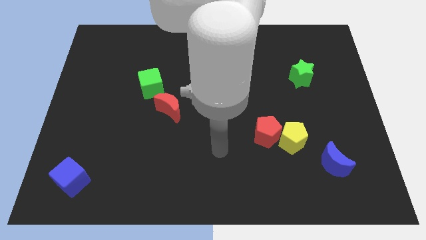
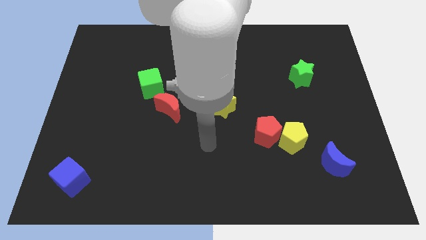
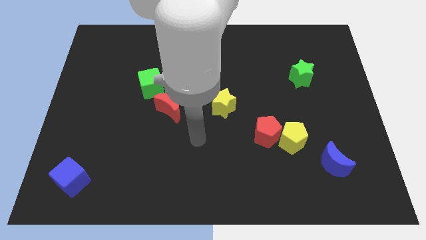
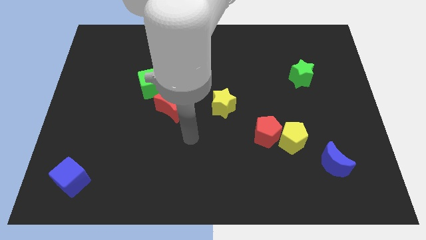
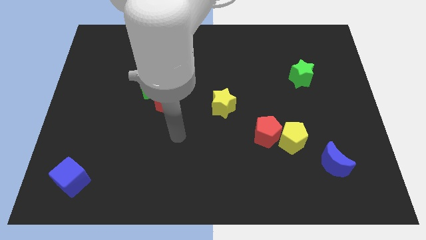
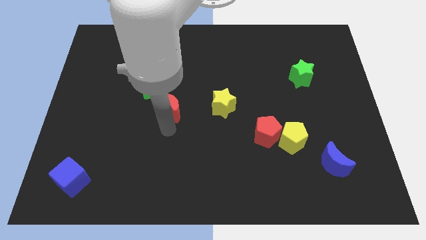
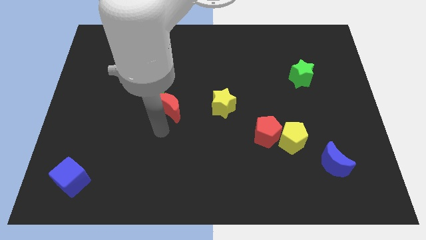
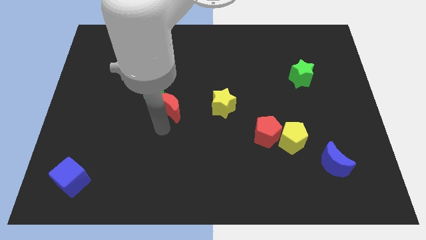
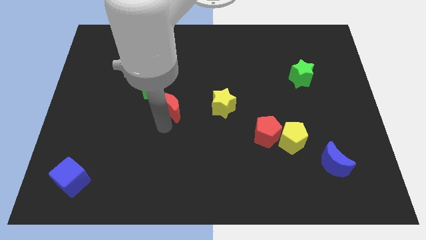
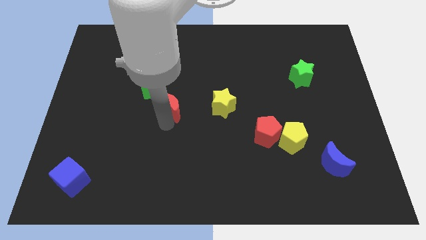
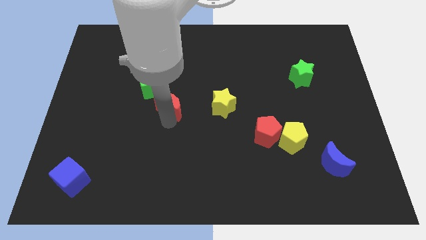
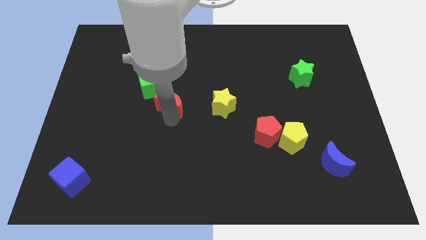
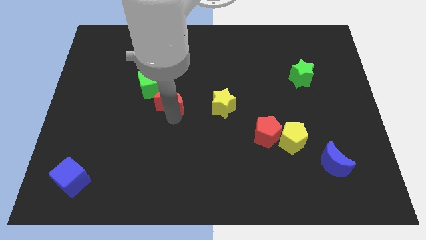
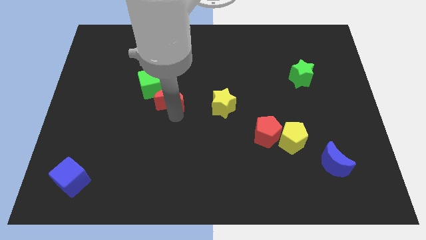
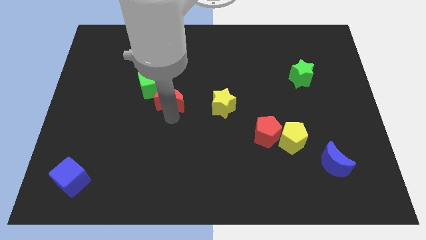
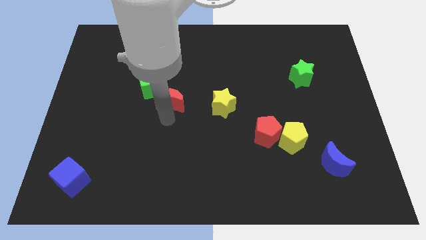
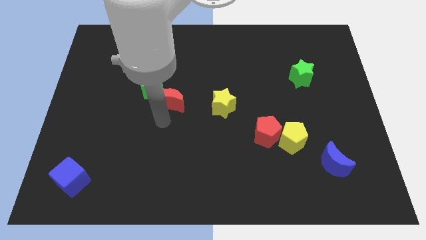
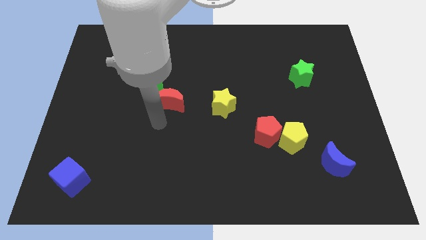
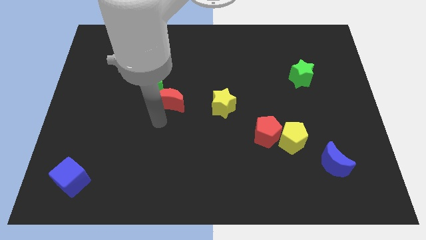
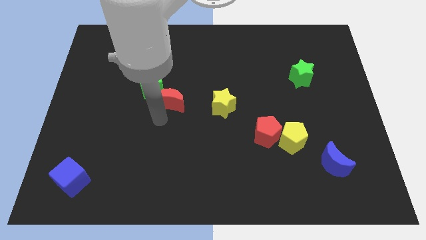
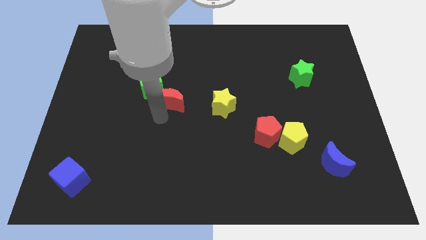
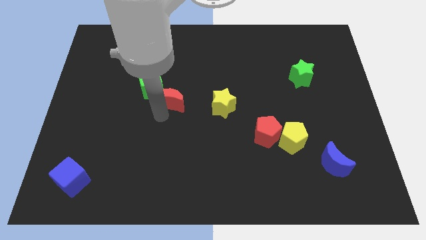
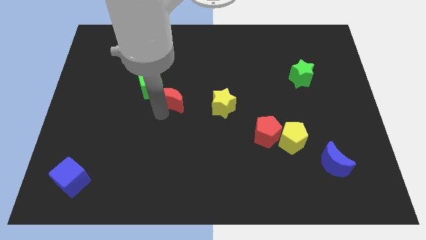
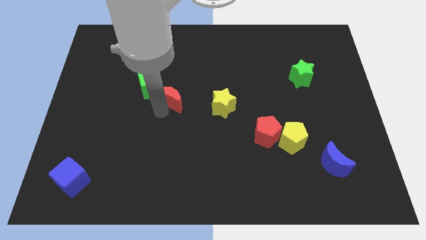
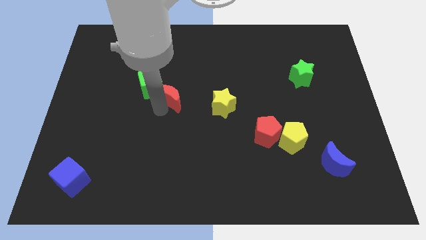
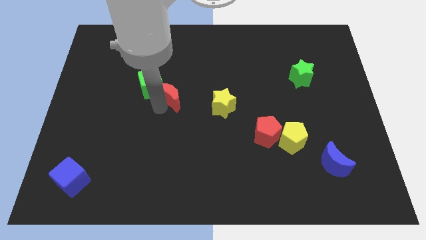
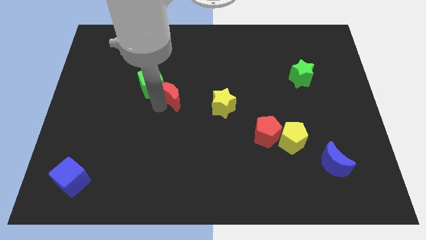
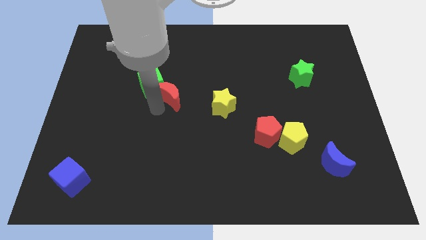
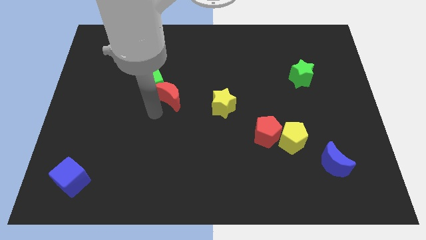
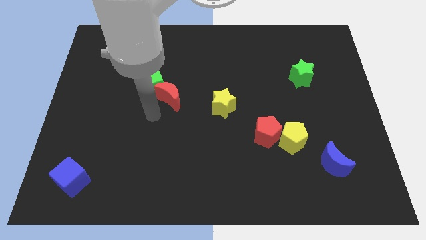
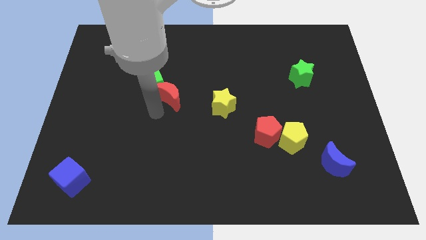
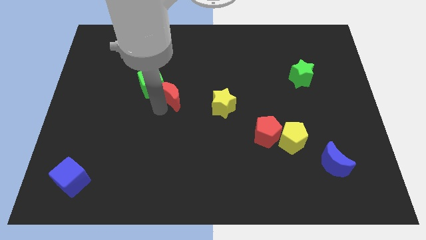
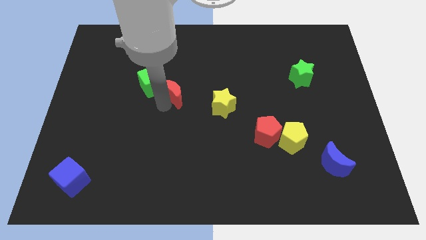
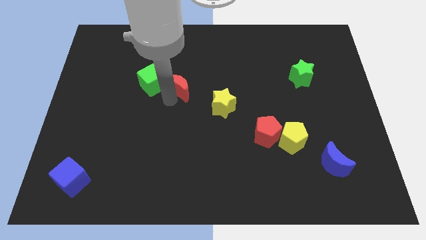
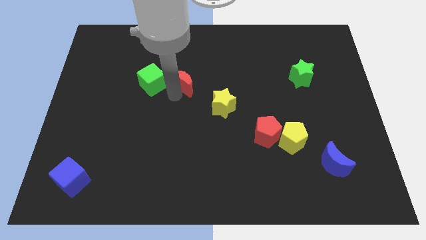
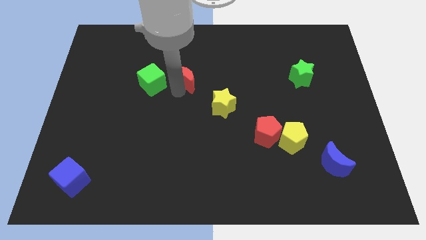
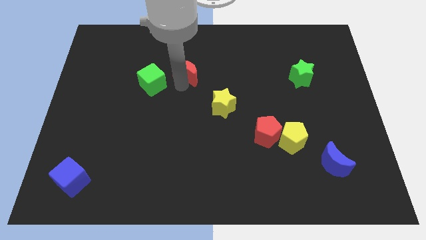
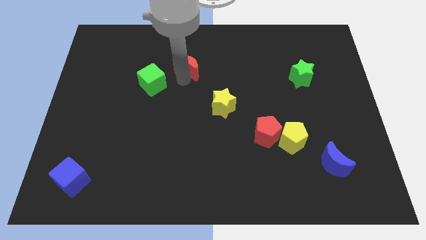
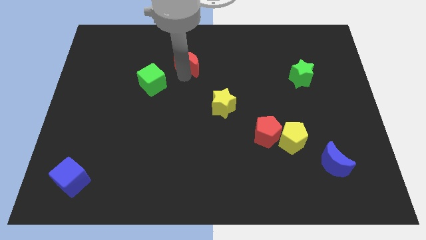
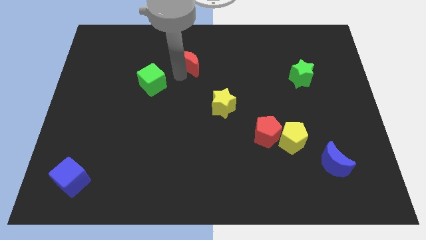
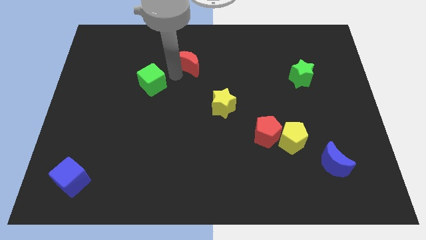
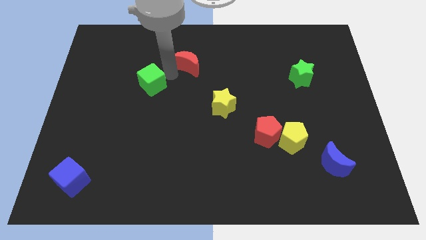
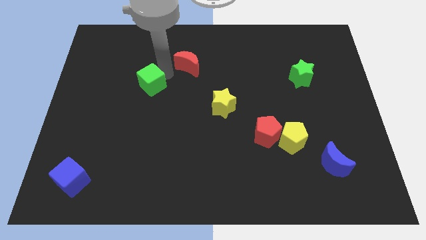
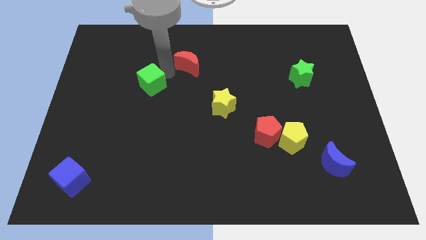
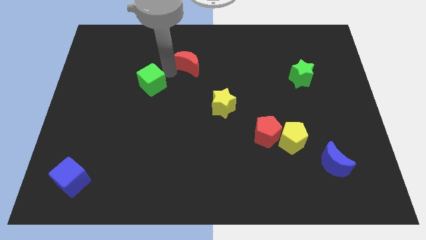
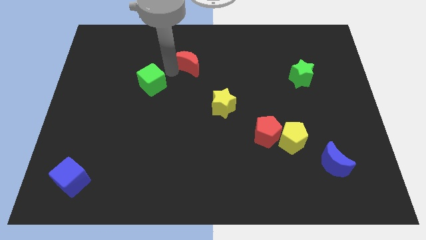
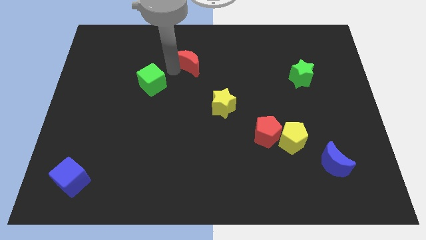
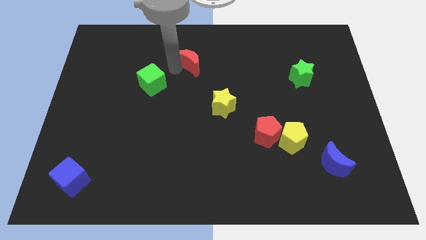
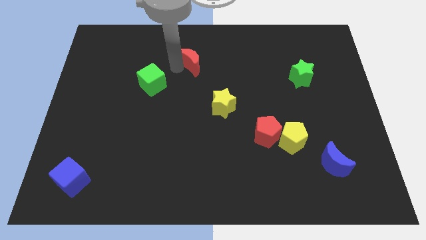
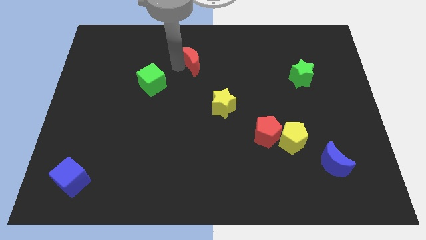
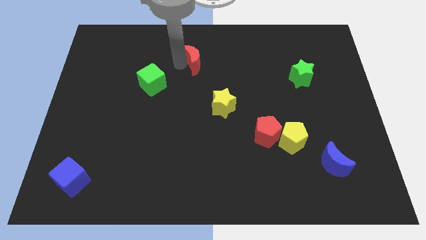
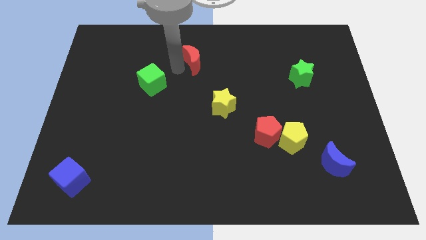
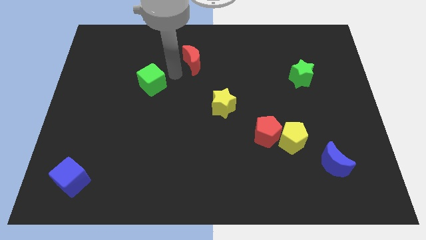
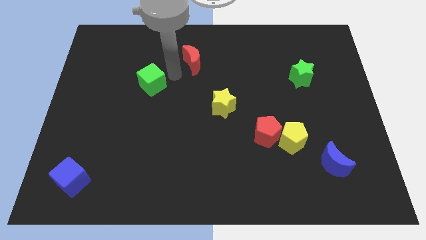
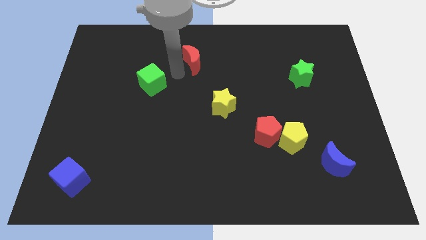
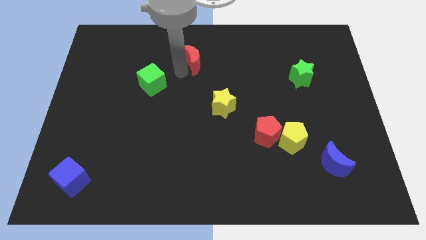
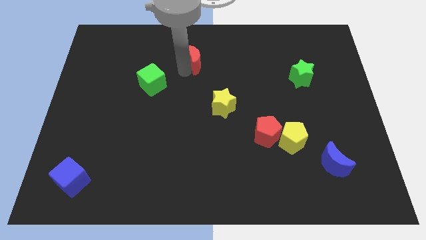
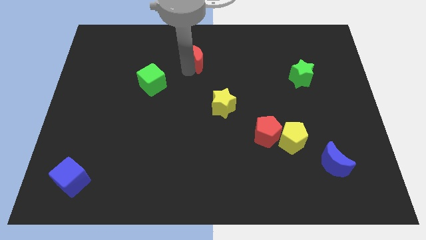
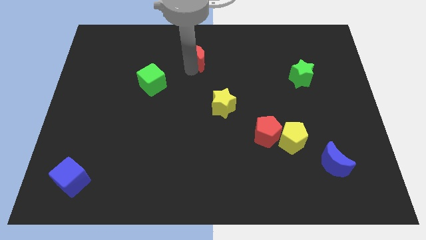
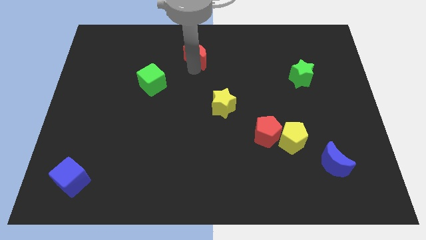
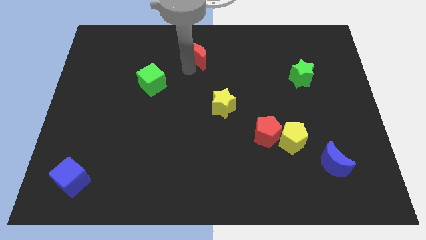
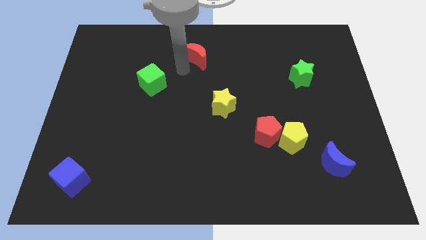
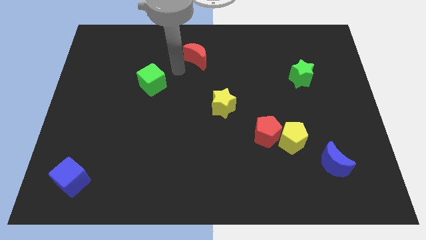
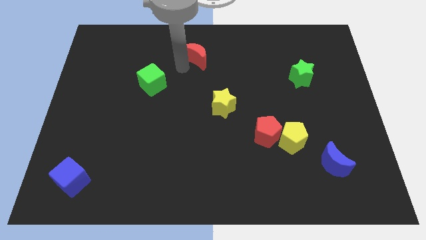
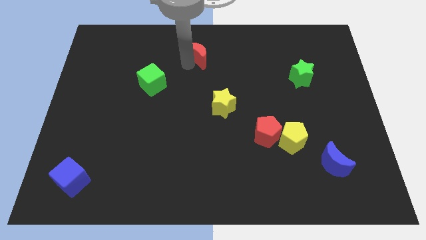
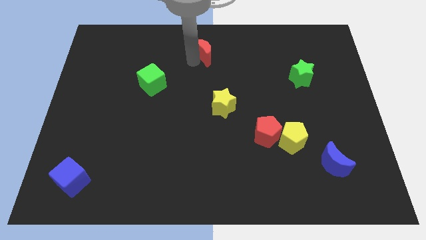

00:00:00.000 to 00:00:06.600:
put the red moon to the top side

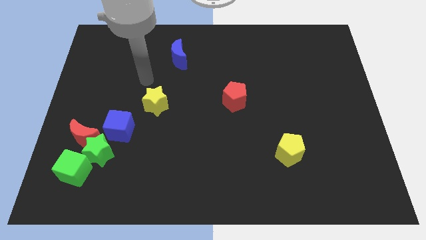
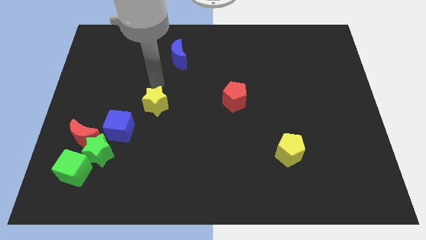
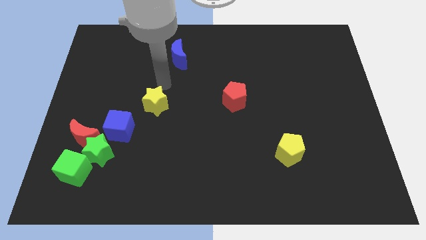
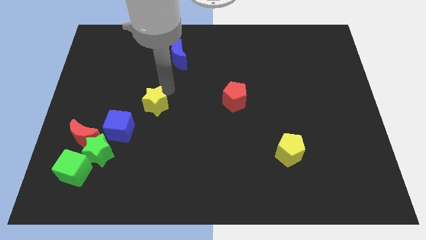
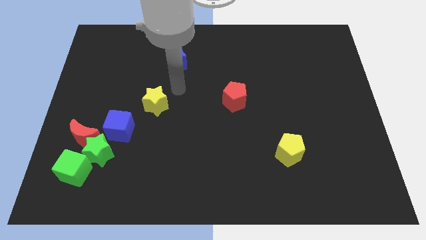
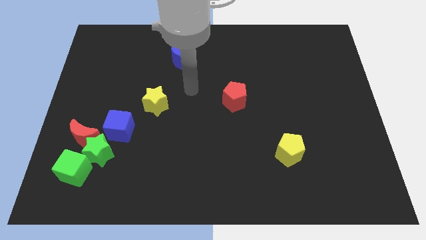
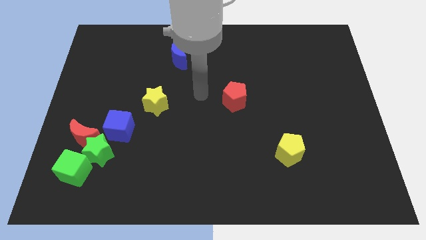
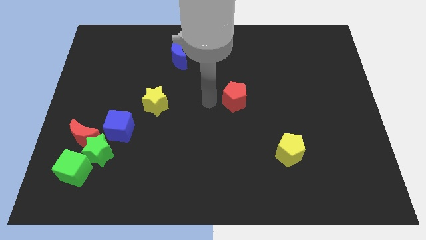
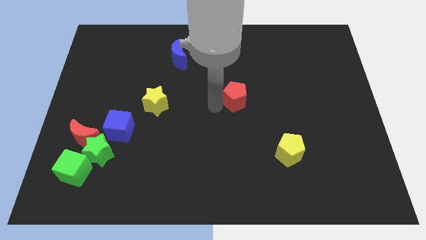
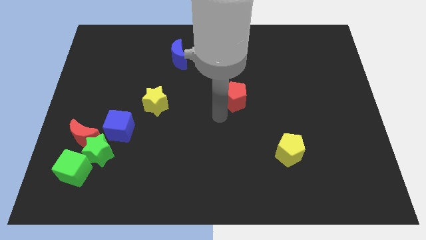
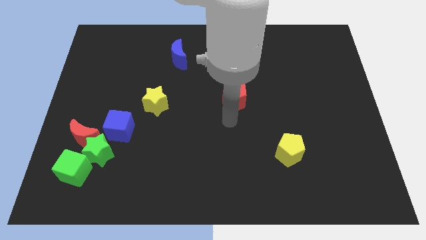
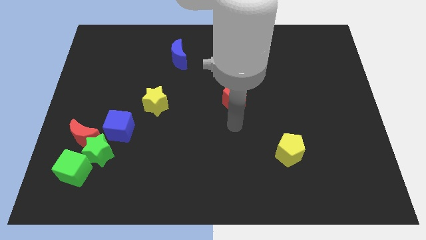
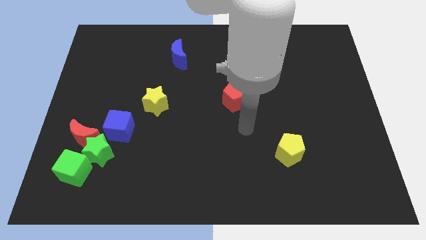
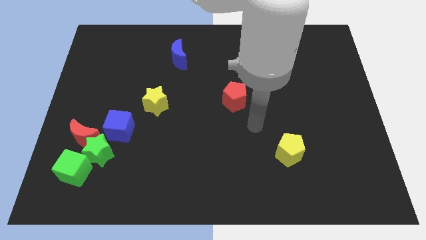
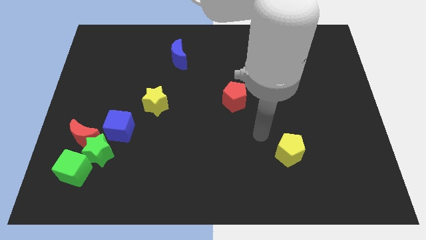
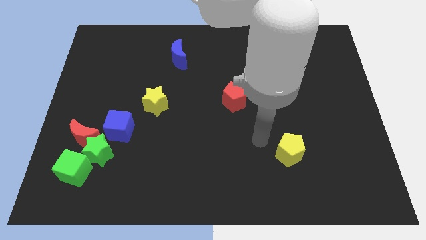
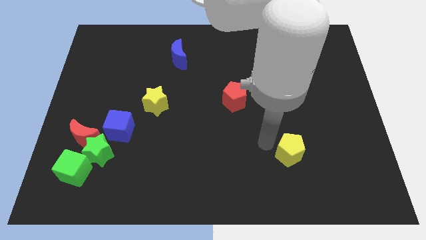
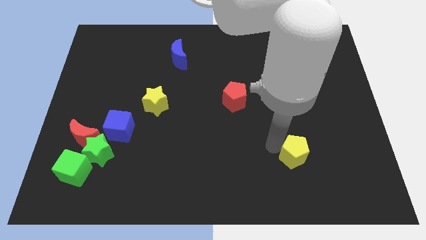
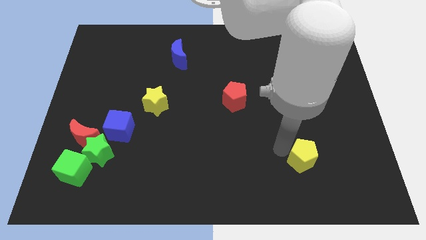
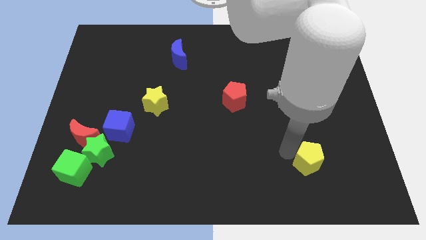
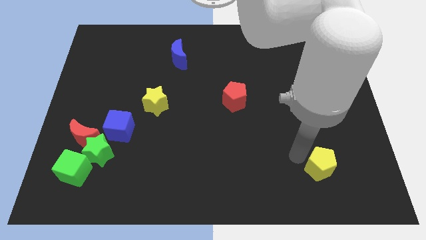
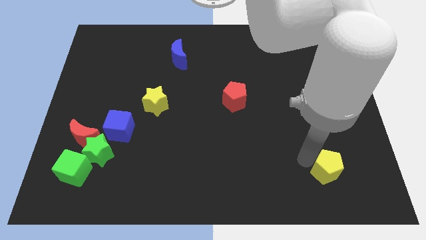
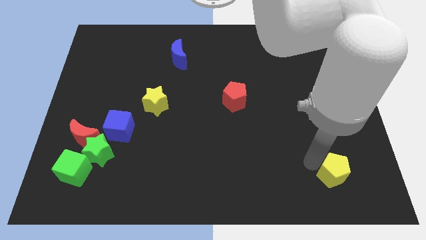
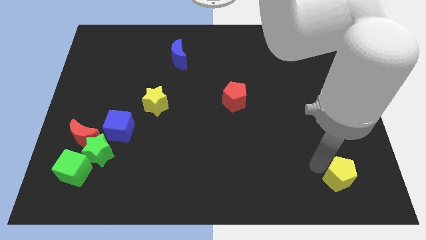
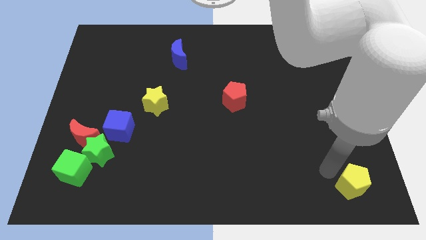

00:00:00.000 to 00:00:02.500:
slide the yellow pentagon to the bottom right corner
